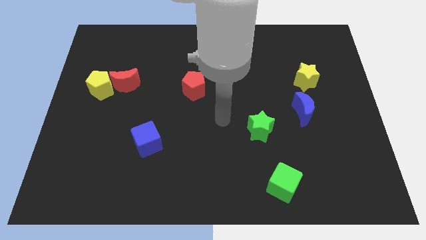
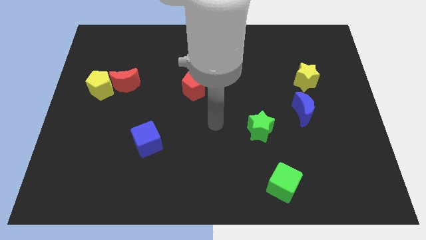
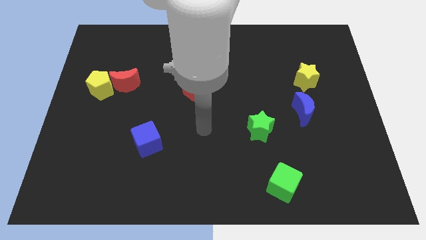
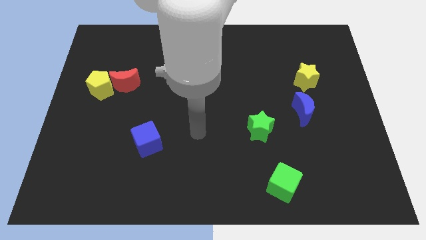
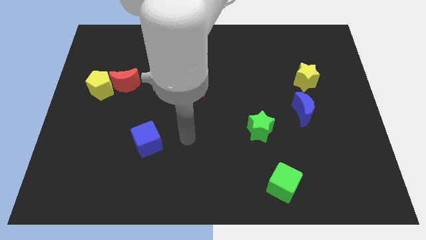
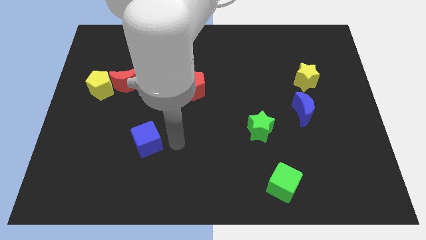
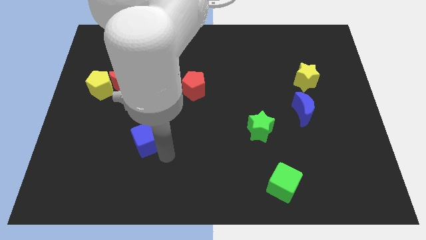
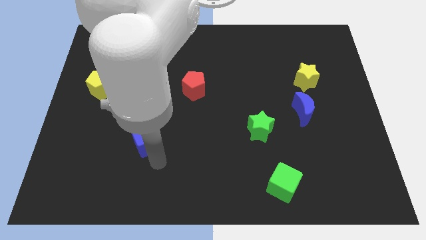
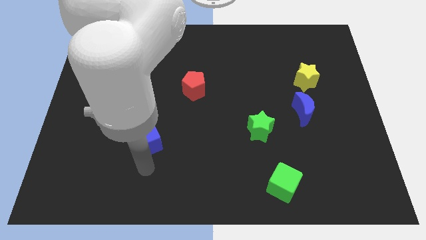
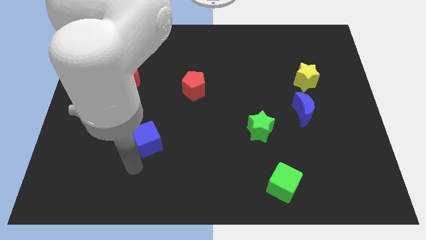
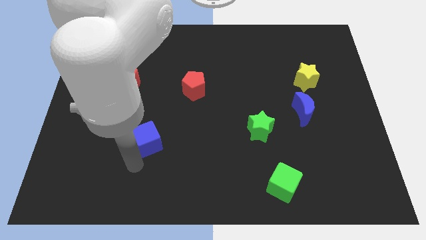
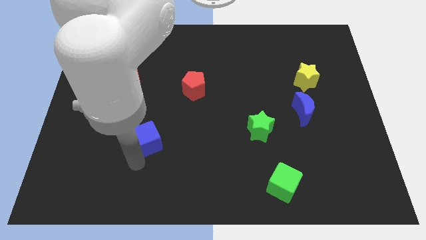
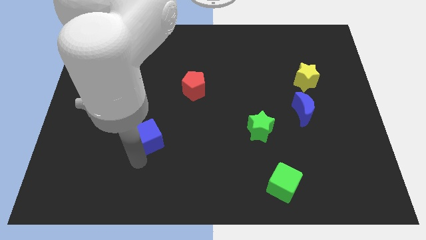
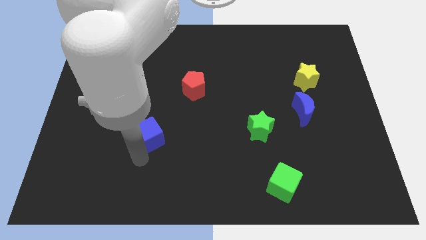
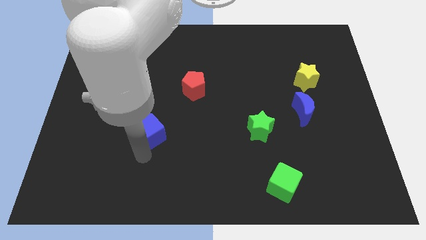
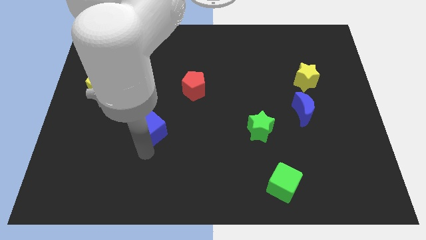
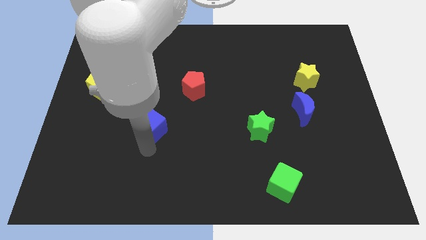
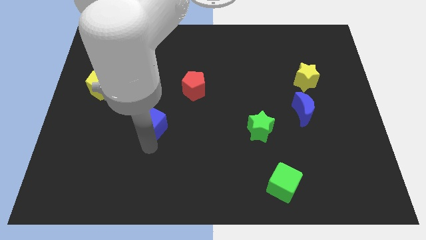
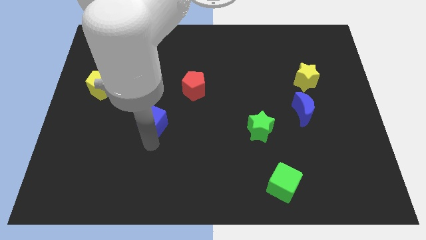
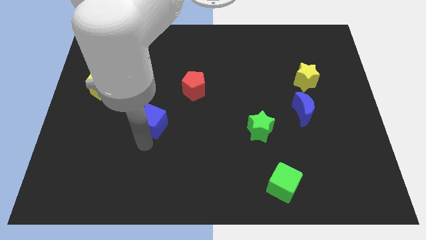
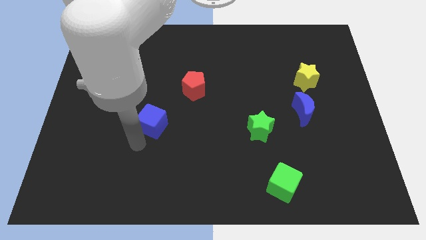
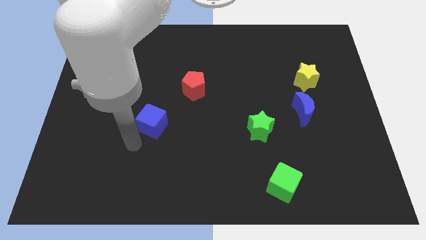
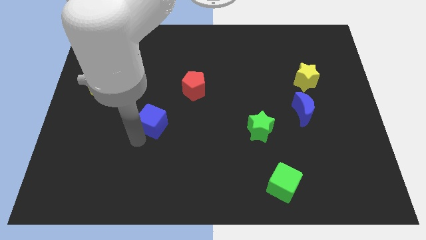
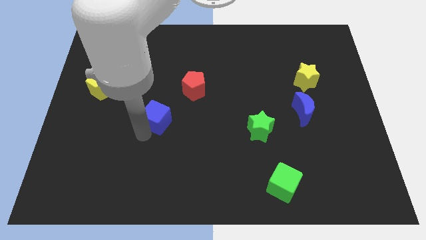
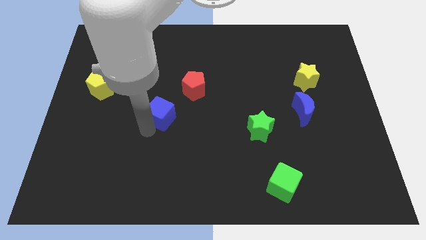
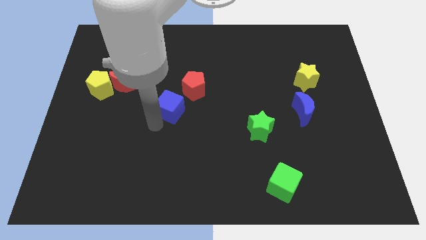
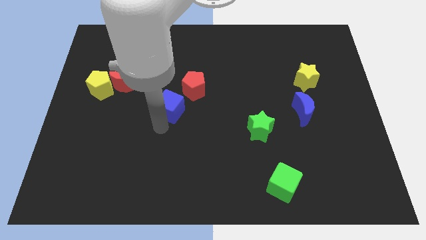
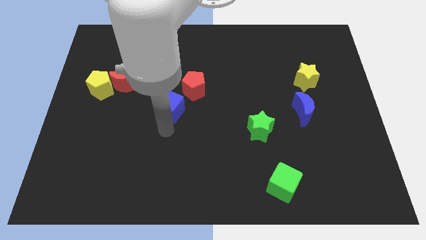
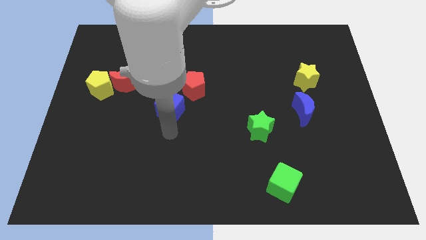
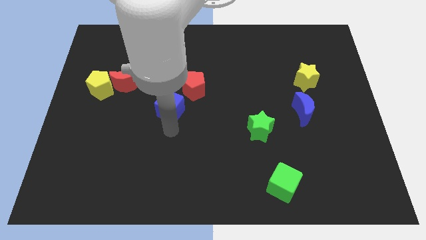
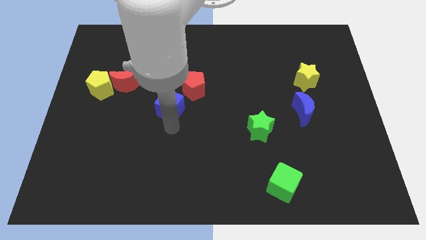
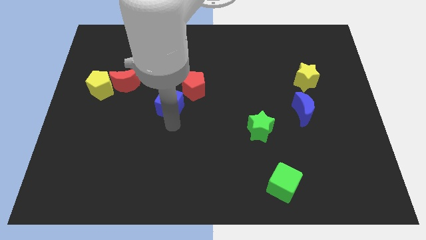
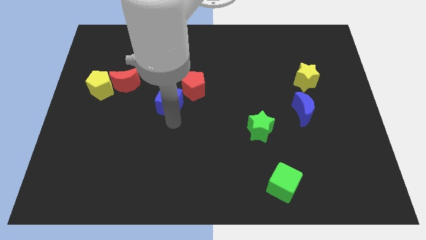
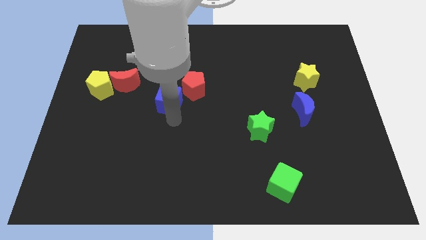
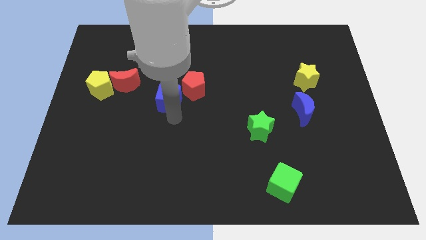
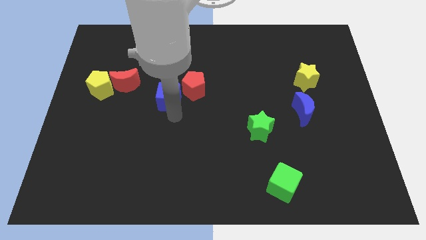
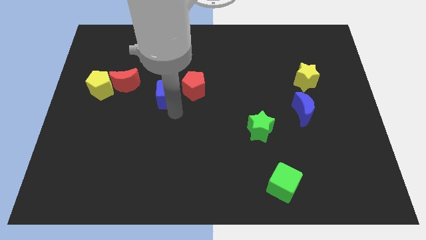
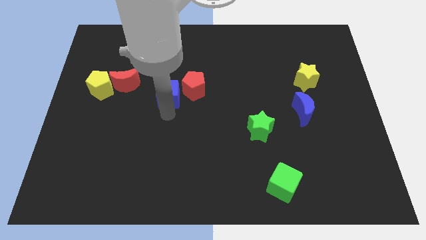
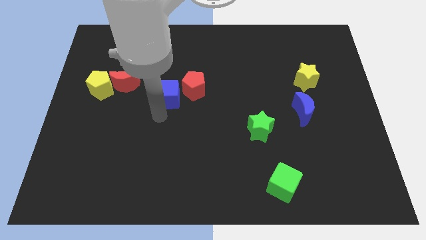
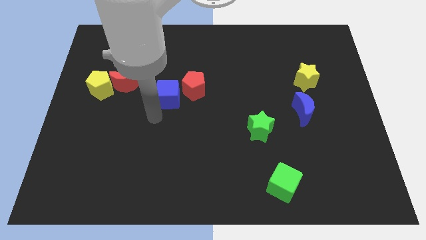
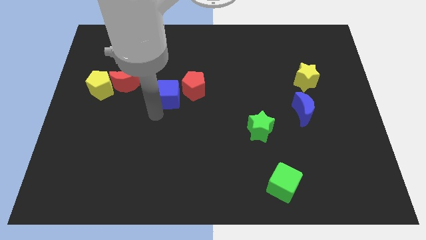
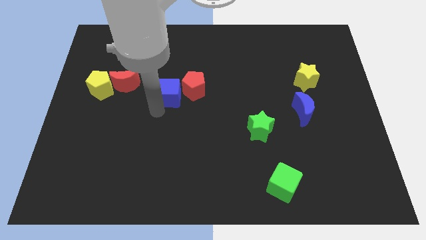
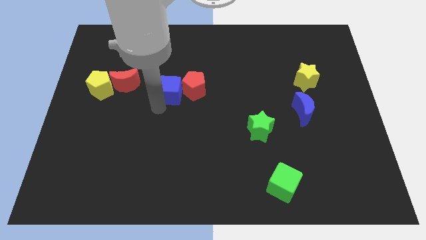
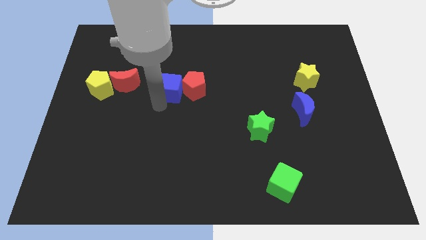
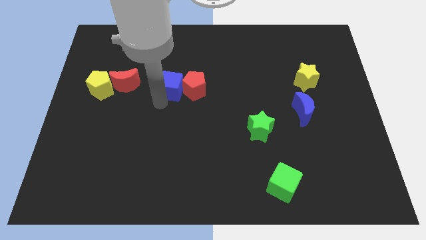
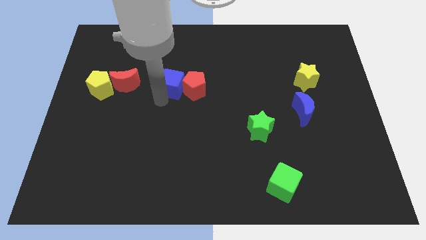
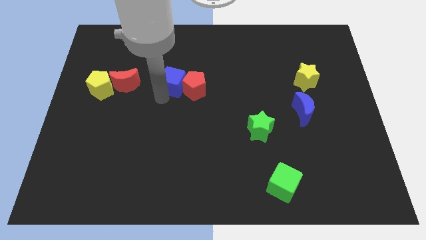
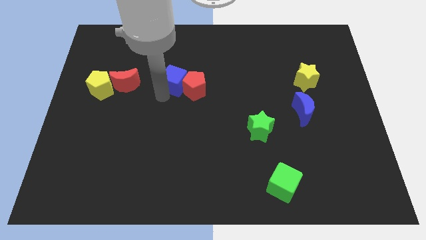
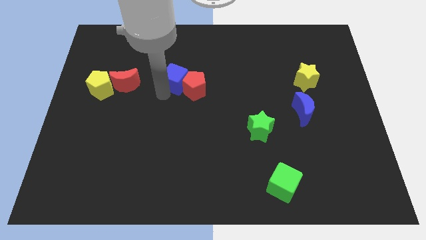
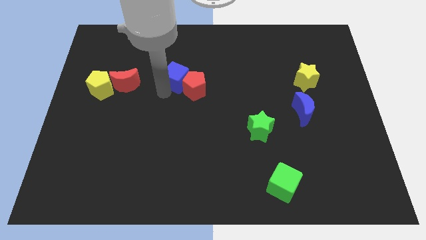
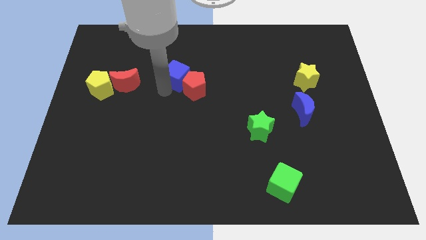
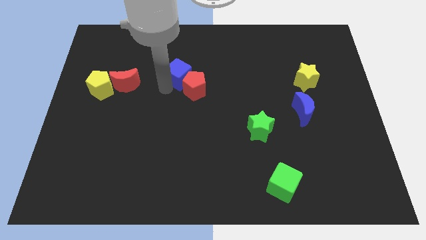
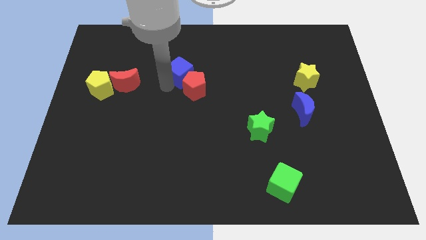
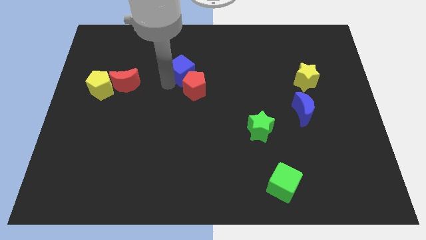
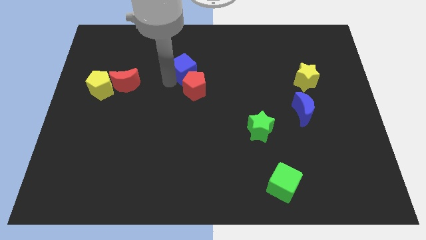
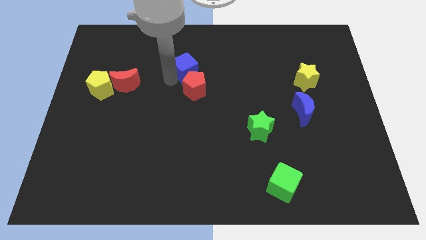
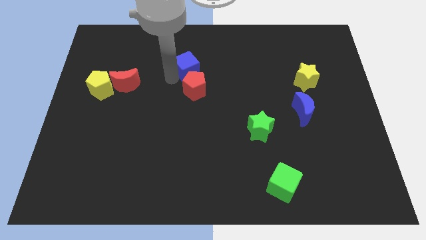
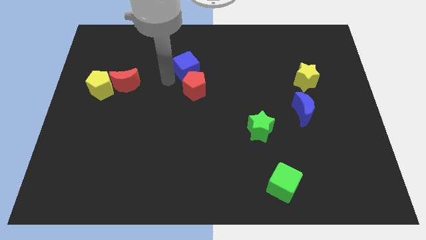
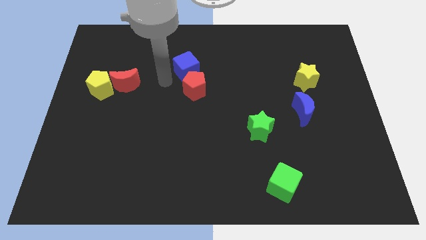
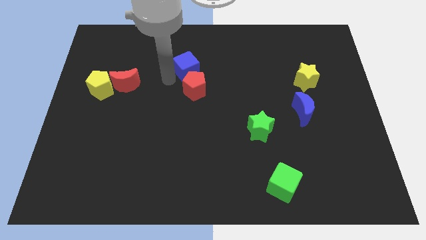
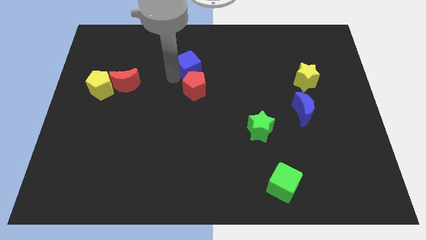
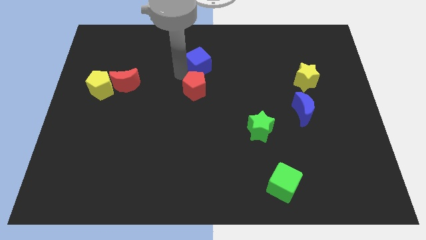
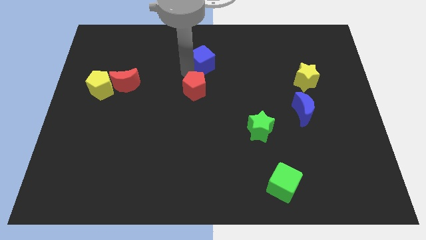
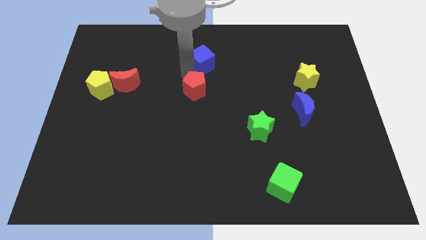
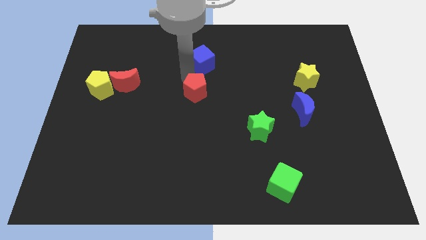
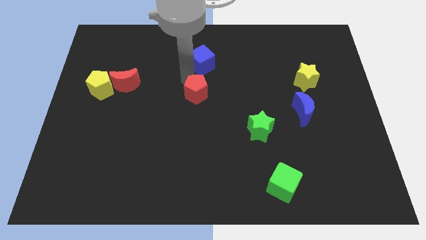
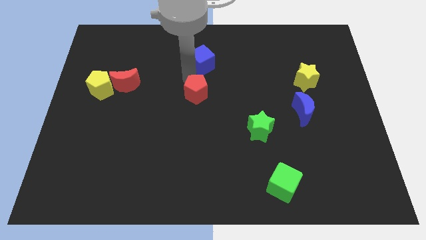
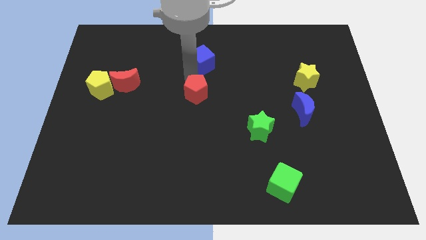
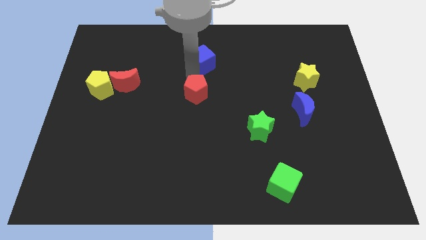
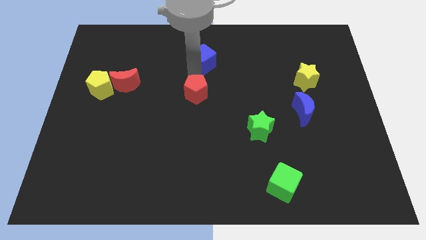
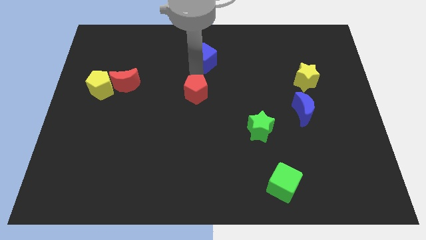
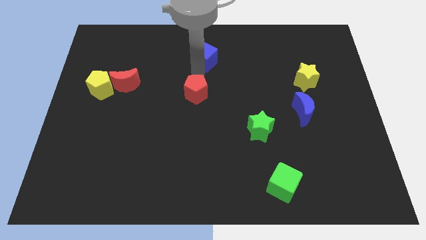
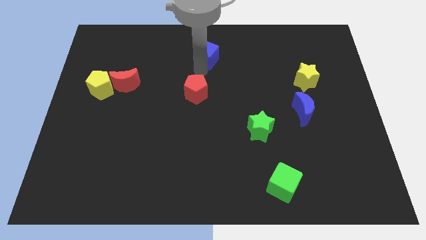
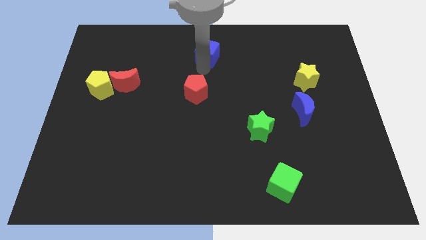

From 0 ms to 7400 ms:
move the blue cube to the towards your base
